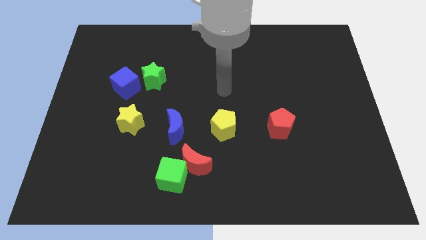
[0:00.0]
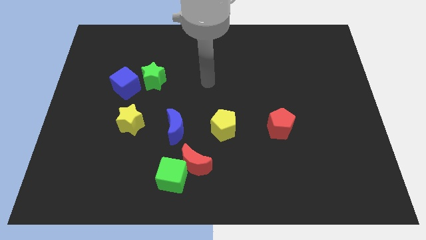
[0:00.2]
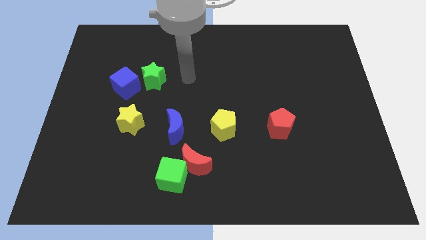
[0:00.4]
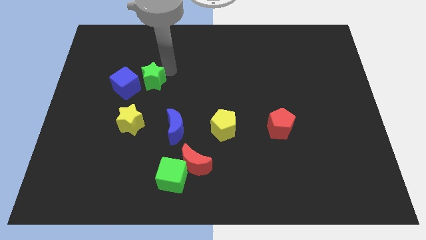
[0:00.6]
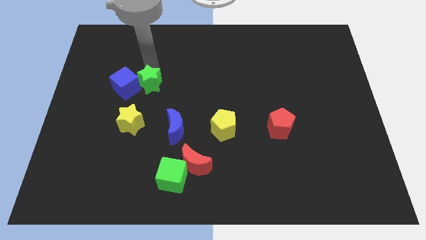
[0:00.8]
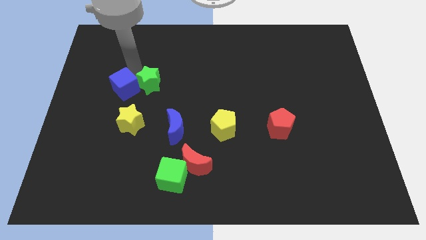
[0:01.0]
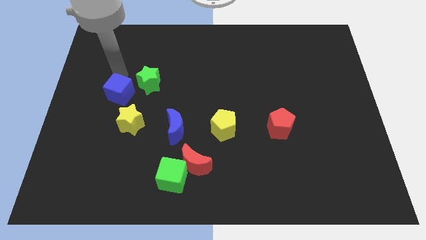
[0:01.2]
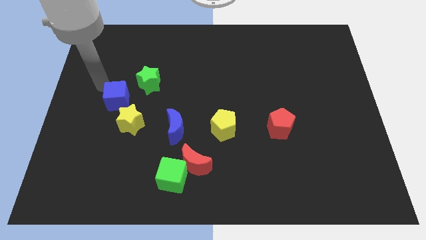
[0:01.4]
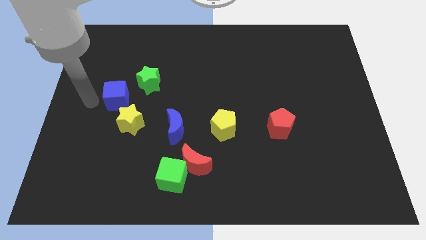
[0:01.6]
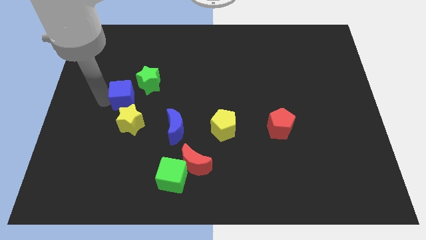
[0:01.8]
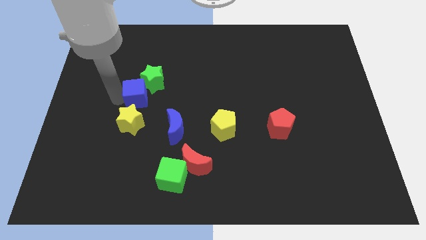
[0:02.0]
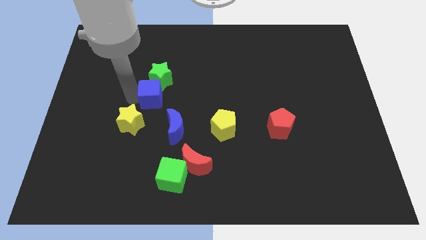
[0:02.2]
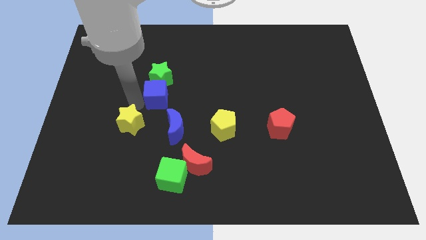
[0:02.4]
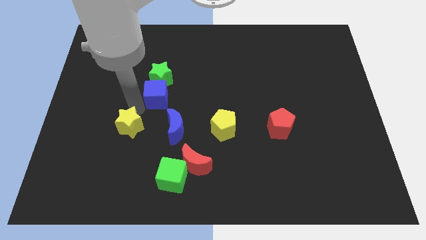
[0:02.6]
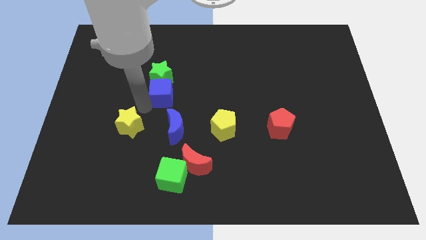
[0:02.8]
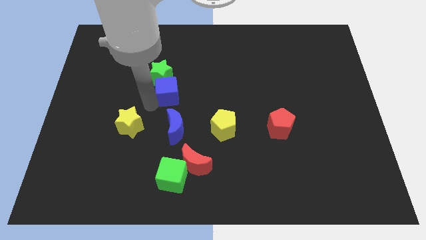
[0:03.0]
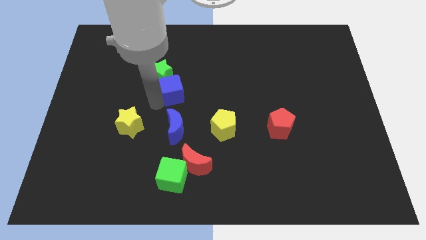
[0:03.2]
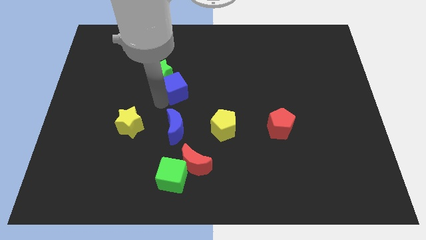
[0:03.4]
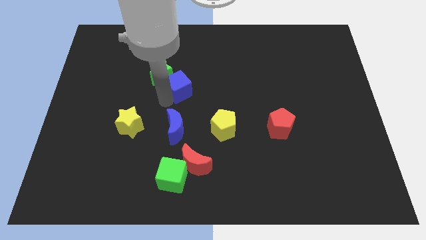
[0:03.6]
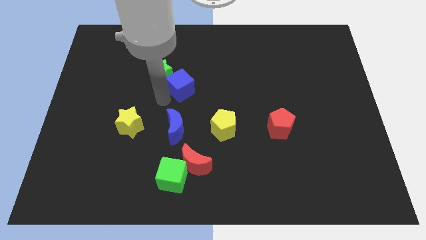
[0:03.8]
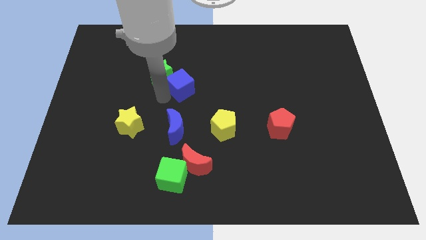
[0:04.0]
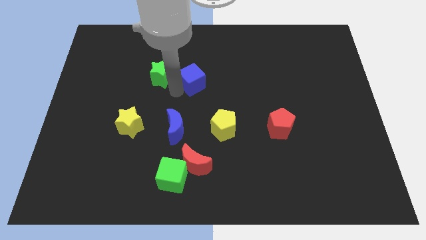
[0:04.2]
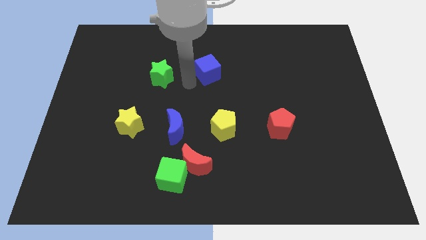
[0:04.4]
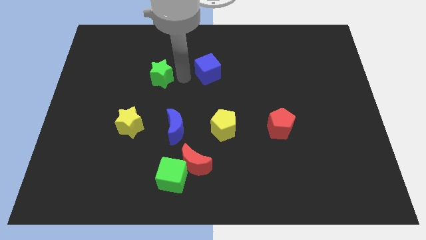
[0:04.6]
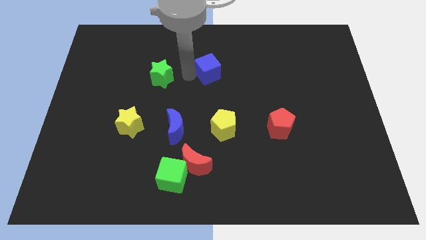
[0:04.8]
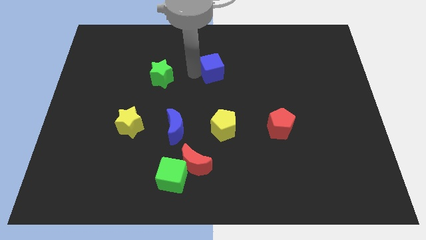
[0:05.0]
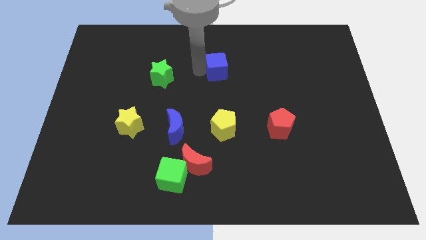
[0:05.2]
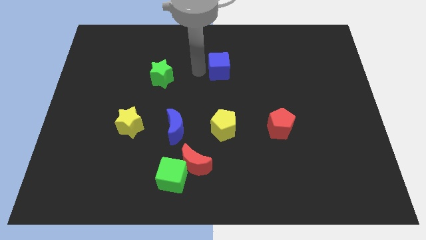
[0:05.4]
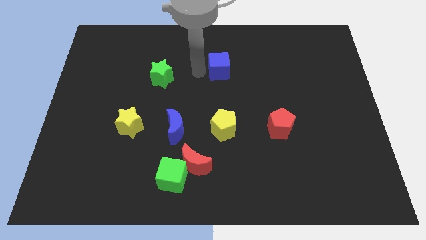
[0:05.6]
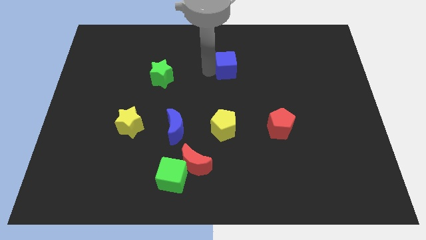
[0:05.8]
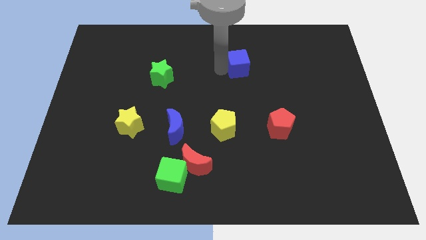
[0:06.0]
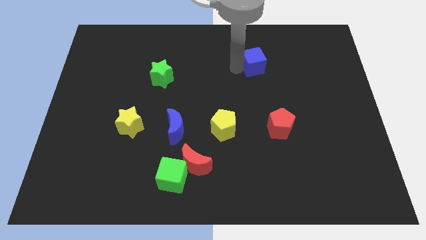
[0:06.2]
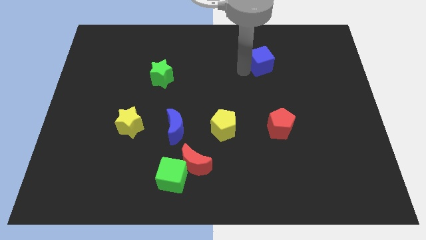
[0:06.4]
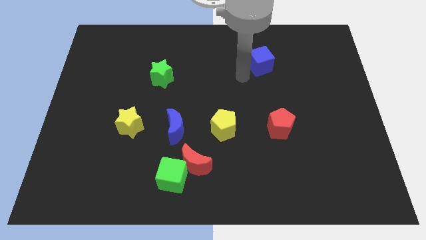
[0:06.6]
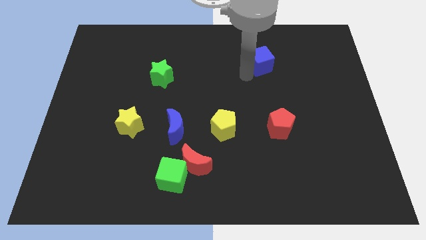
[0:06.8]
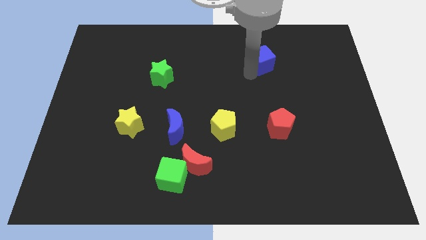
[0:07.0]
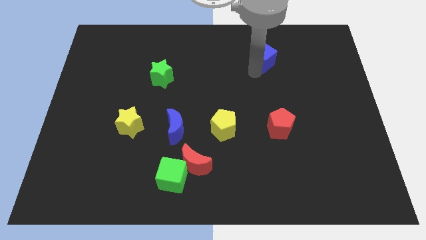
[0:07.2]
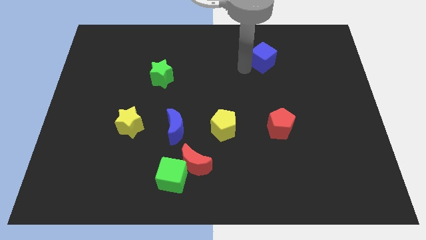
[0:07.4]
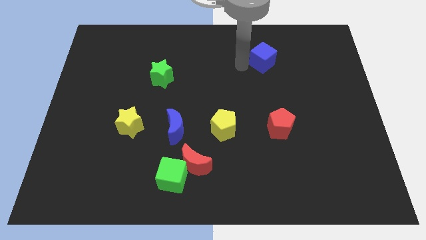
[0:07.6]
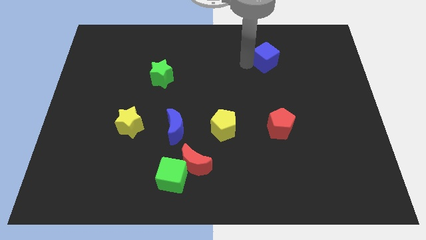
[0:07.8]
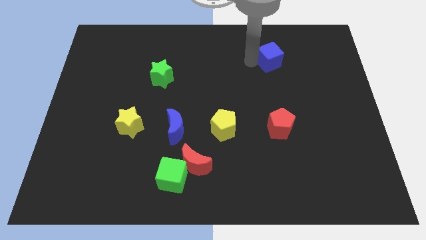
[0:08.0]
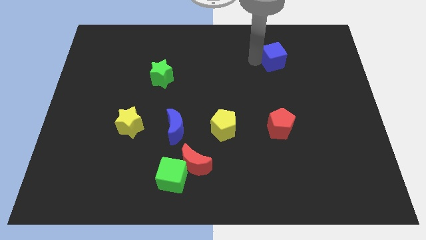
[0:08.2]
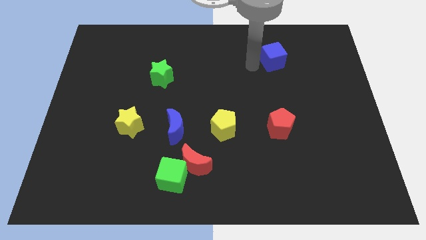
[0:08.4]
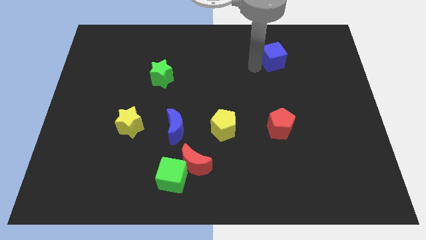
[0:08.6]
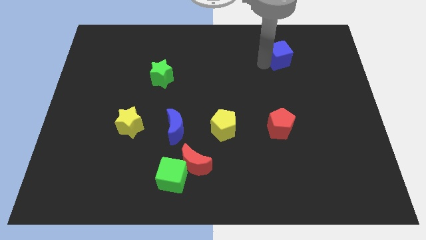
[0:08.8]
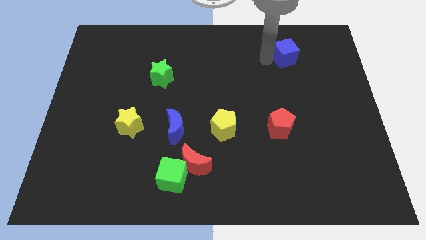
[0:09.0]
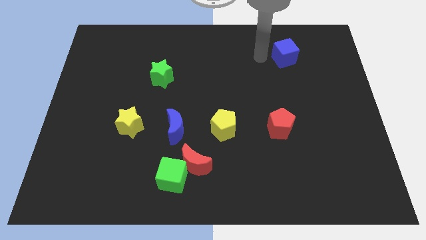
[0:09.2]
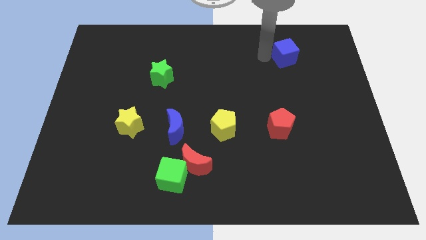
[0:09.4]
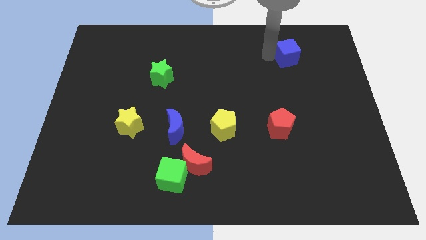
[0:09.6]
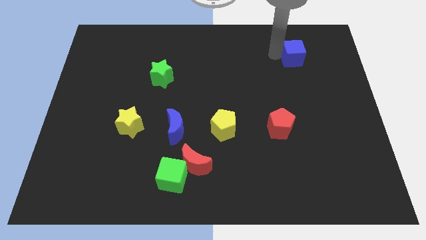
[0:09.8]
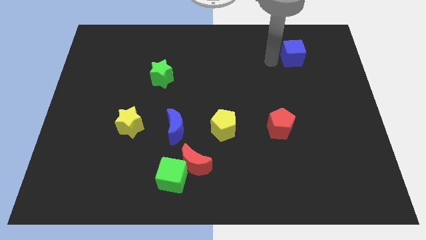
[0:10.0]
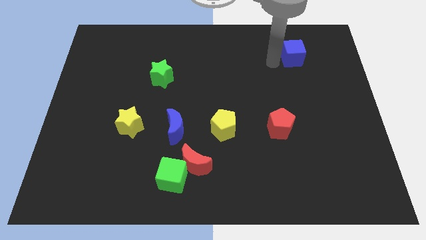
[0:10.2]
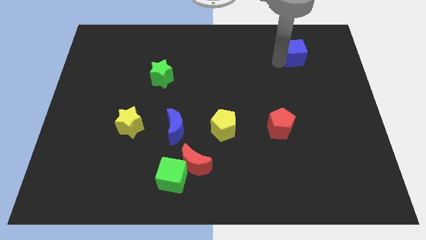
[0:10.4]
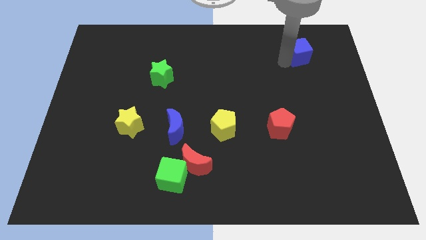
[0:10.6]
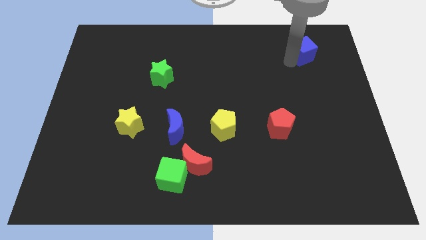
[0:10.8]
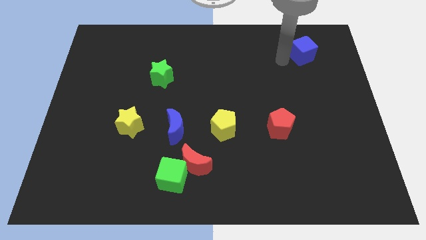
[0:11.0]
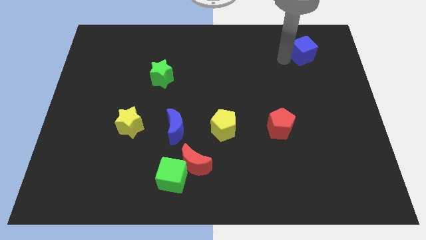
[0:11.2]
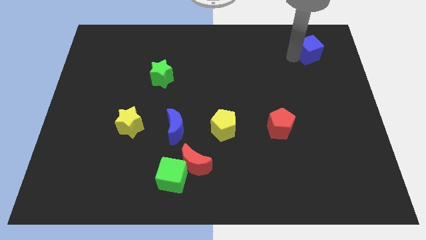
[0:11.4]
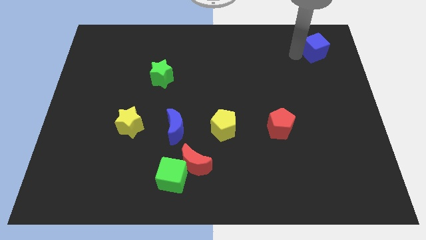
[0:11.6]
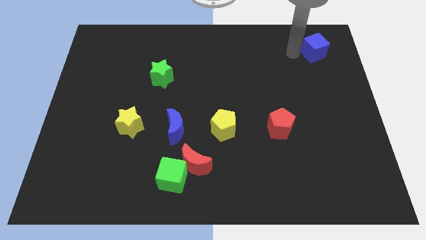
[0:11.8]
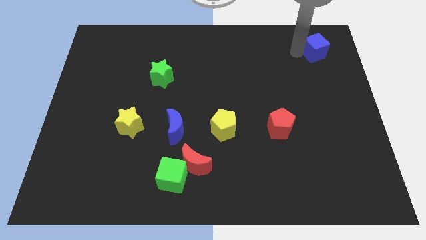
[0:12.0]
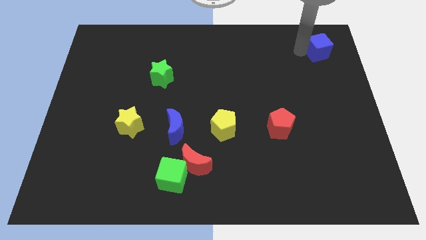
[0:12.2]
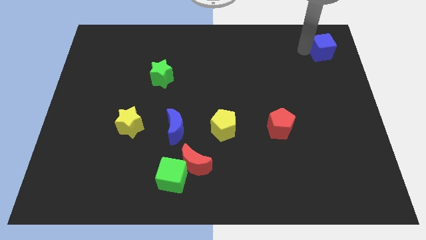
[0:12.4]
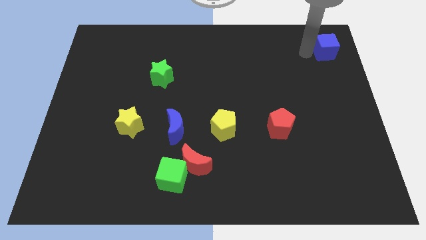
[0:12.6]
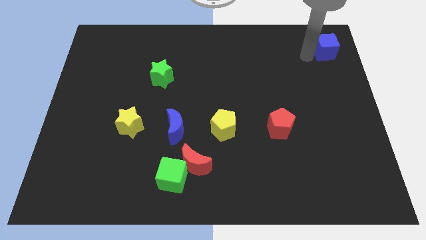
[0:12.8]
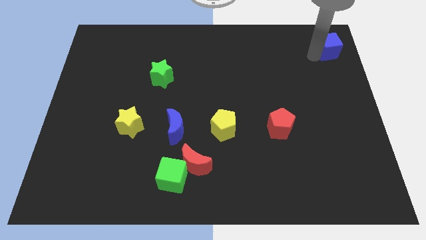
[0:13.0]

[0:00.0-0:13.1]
push the blue cube to the top right of the board

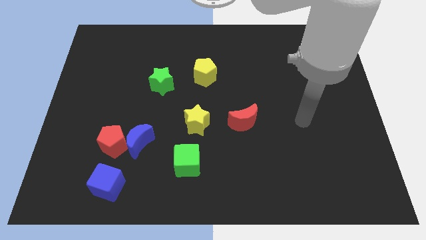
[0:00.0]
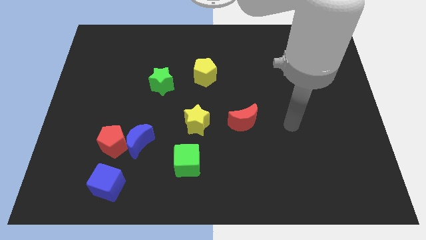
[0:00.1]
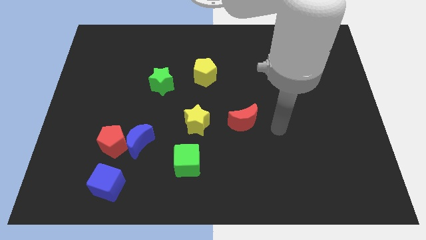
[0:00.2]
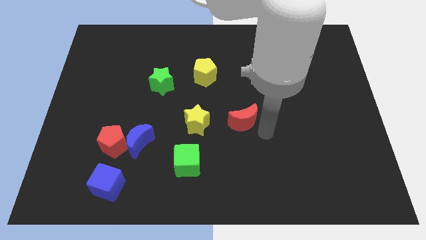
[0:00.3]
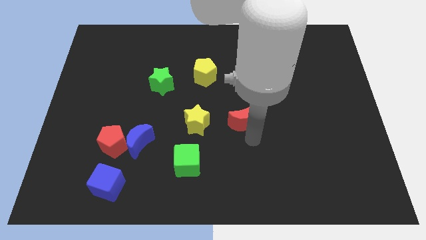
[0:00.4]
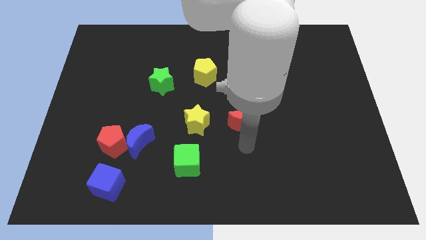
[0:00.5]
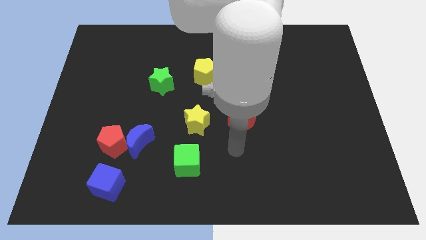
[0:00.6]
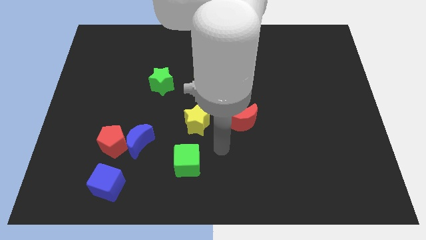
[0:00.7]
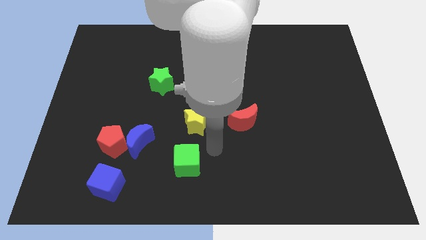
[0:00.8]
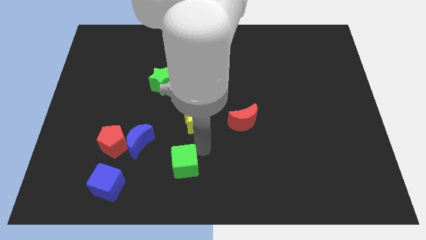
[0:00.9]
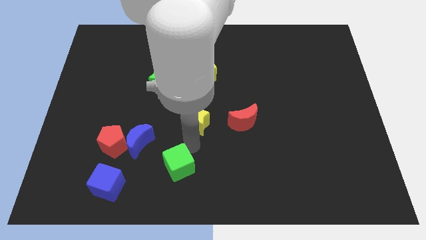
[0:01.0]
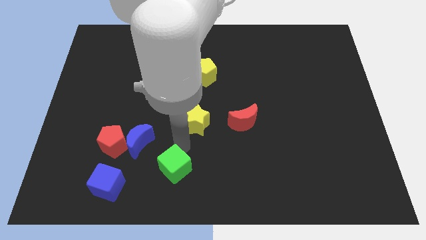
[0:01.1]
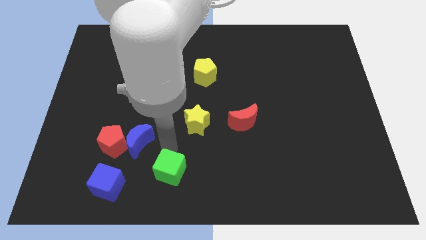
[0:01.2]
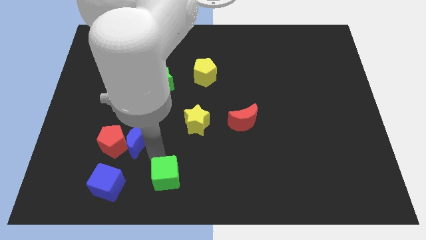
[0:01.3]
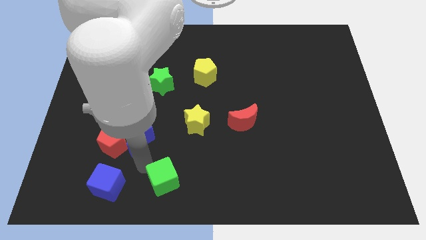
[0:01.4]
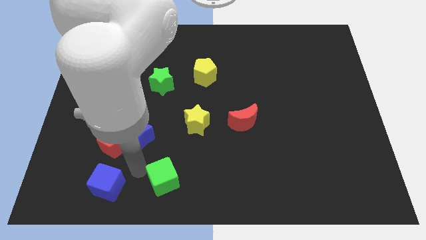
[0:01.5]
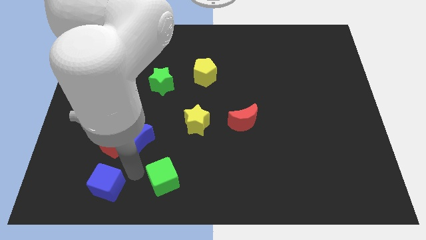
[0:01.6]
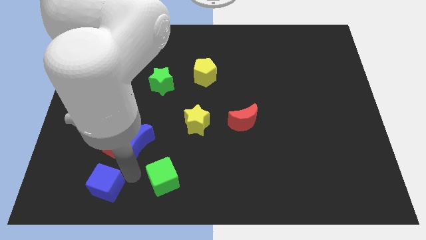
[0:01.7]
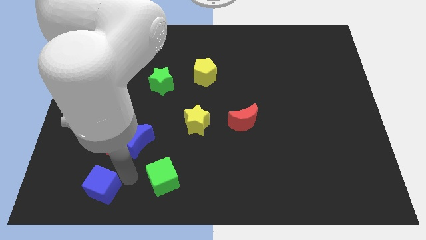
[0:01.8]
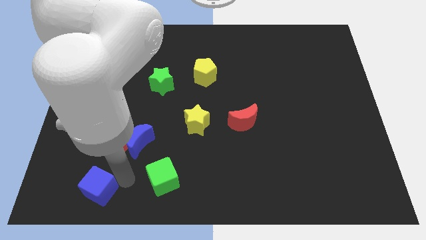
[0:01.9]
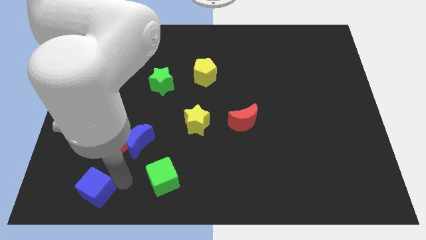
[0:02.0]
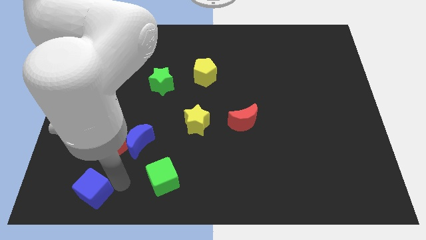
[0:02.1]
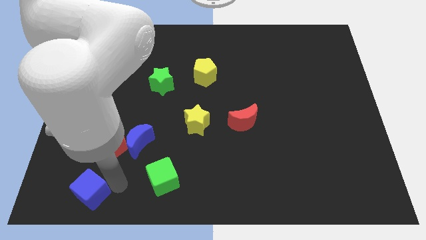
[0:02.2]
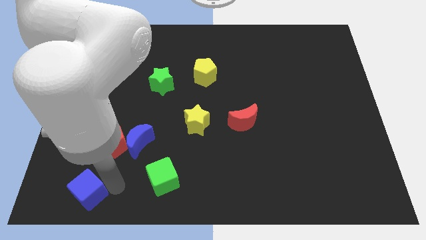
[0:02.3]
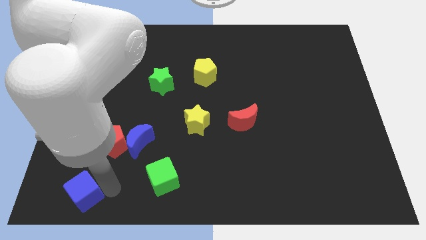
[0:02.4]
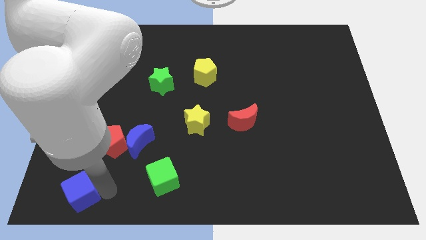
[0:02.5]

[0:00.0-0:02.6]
push the blue cube to the bottom left corner
